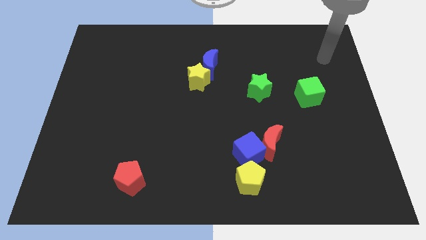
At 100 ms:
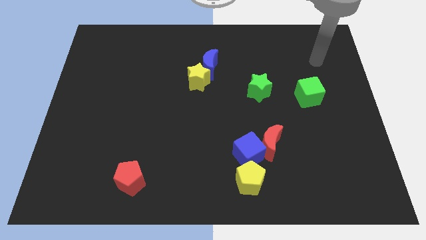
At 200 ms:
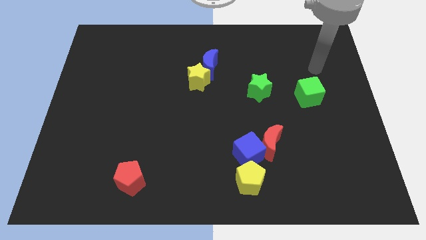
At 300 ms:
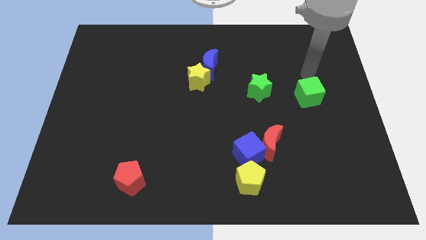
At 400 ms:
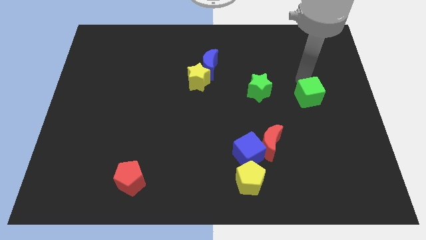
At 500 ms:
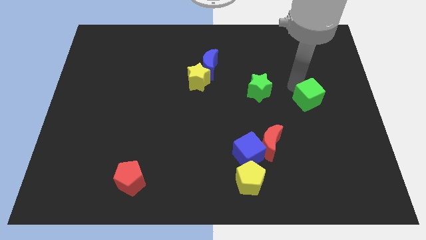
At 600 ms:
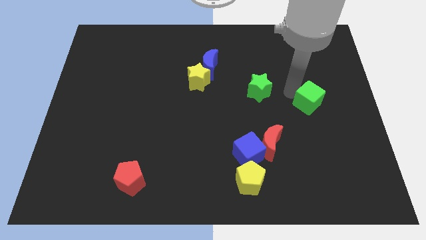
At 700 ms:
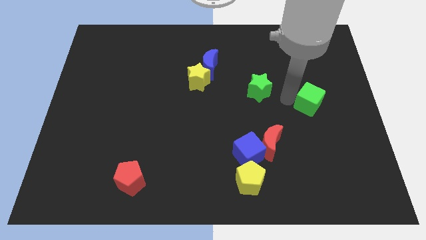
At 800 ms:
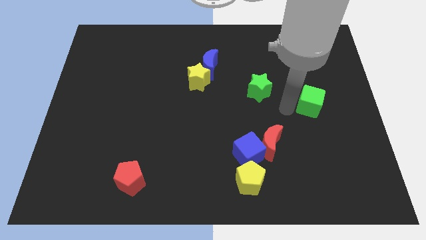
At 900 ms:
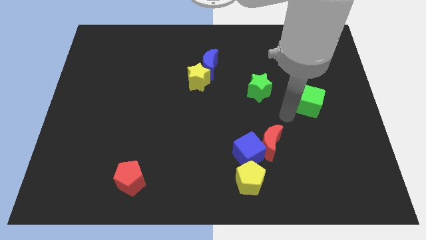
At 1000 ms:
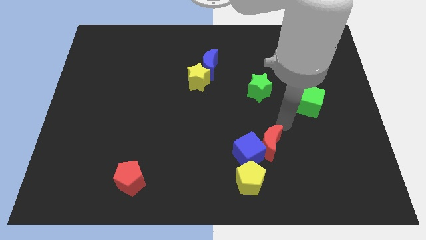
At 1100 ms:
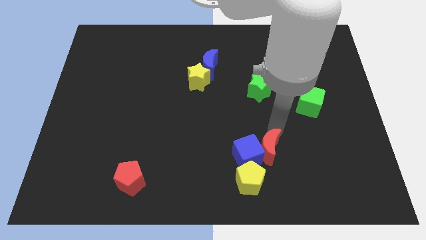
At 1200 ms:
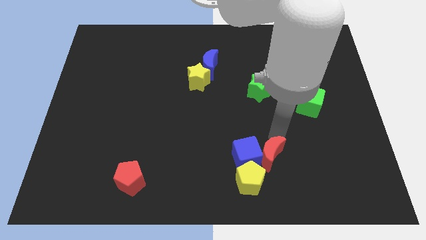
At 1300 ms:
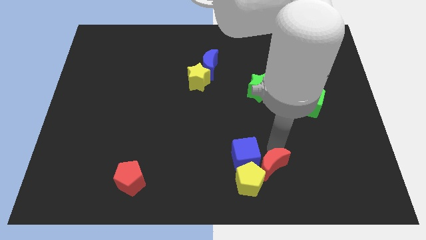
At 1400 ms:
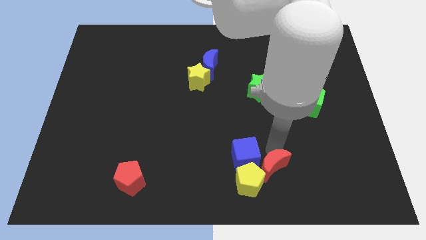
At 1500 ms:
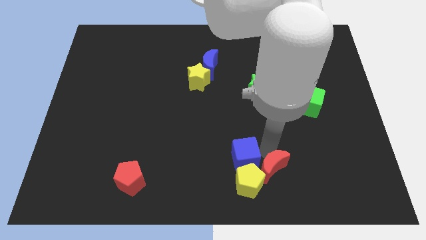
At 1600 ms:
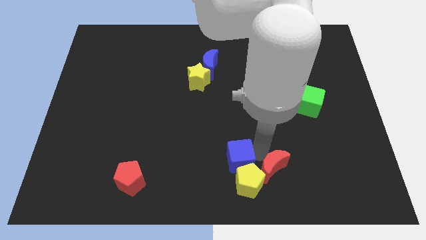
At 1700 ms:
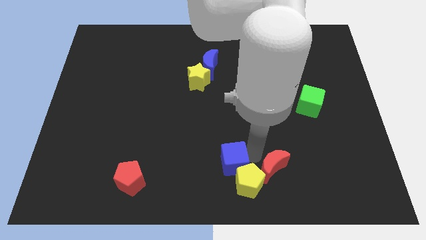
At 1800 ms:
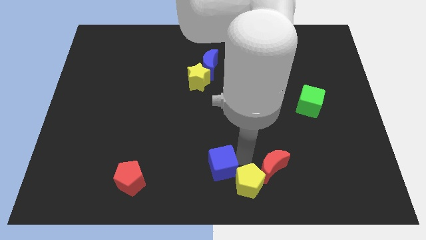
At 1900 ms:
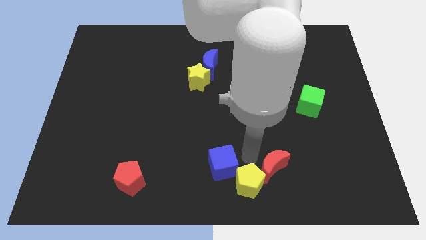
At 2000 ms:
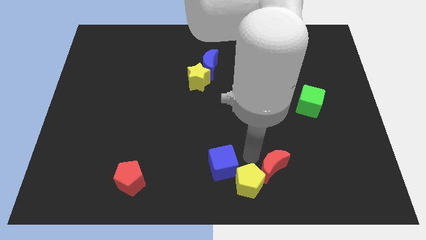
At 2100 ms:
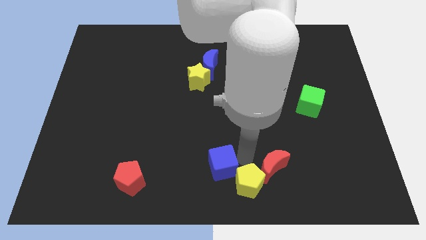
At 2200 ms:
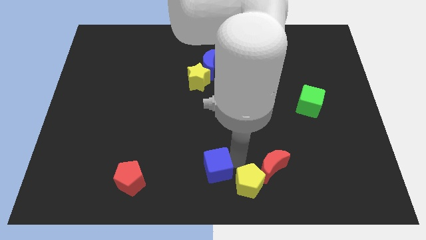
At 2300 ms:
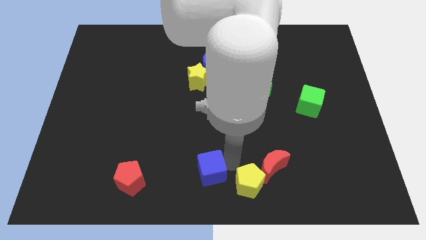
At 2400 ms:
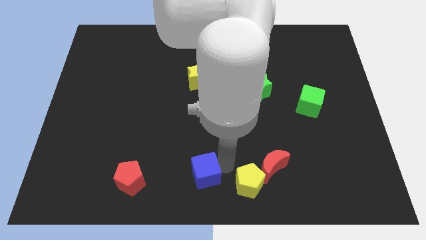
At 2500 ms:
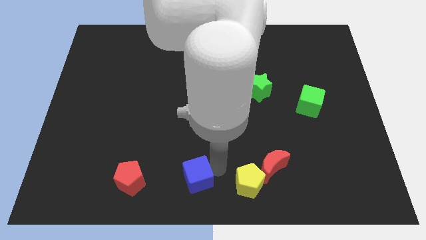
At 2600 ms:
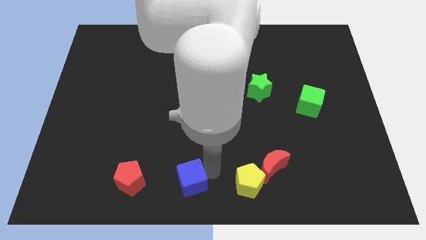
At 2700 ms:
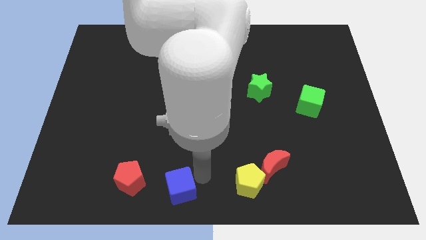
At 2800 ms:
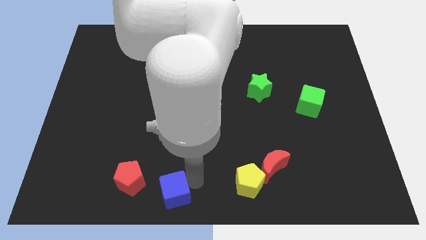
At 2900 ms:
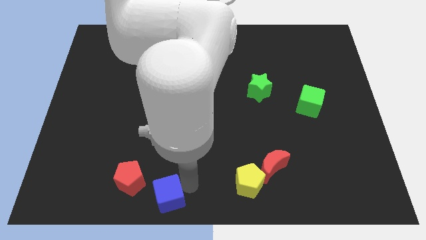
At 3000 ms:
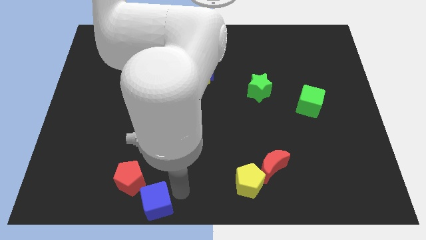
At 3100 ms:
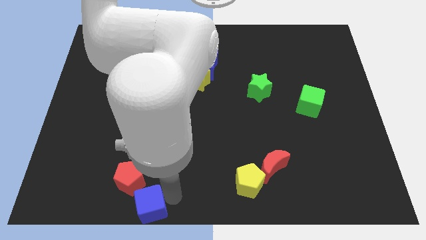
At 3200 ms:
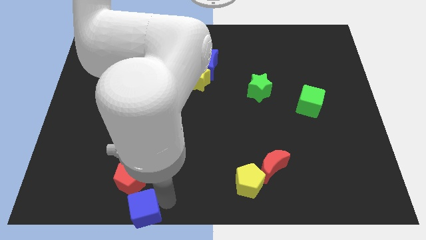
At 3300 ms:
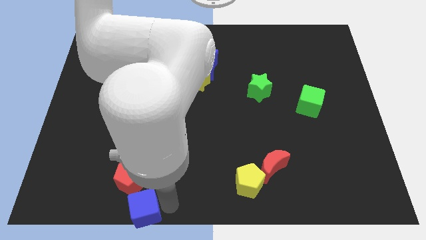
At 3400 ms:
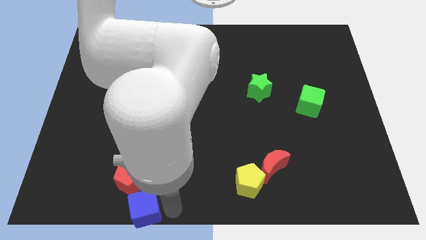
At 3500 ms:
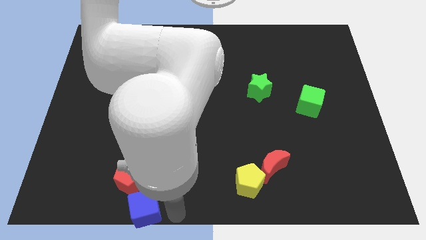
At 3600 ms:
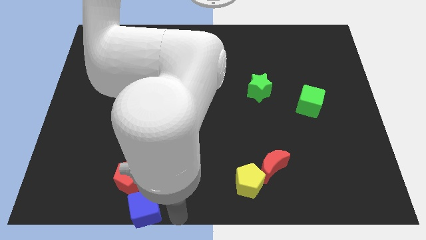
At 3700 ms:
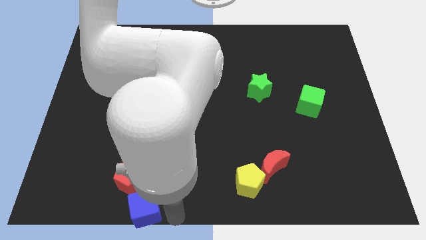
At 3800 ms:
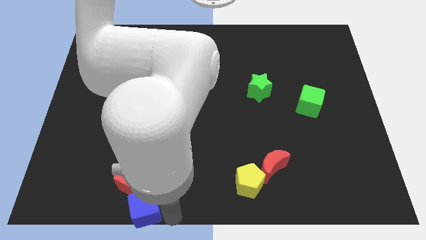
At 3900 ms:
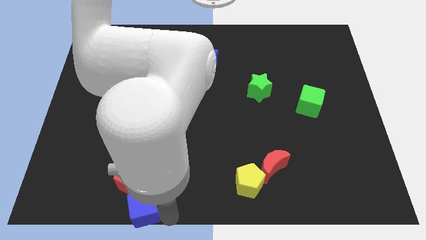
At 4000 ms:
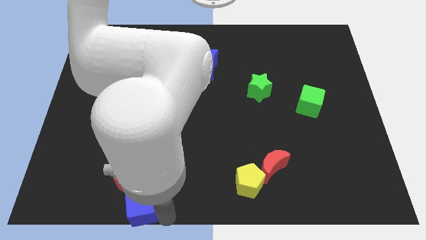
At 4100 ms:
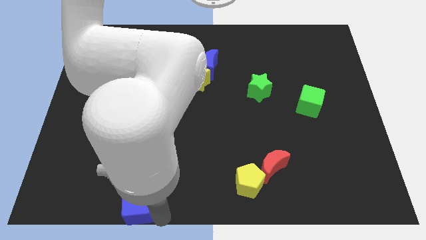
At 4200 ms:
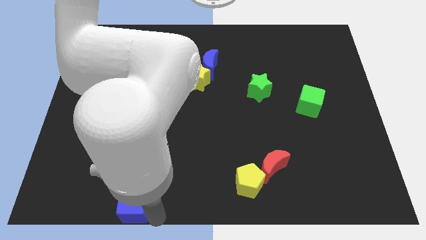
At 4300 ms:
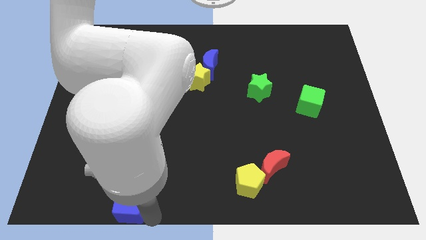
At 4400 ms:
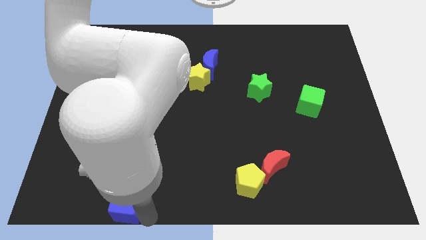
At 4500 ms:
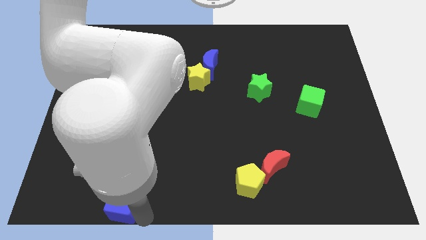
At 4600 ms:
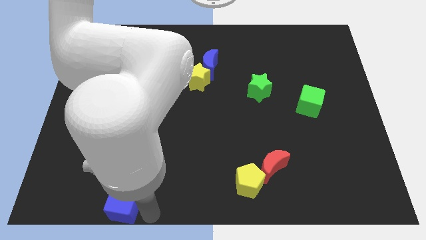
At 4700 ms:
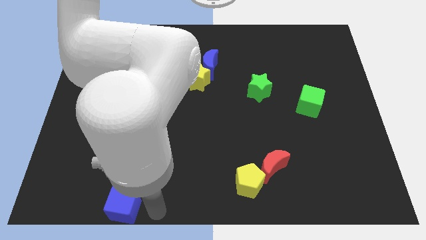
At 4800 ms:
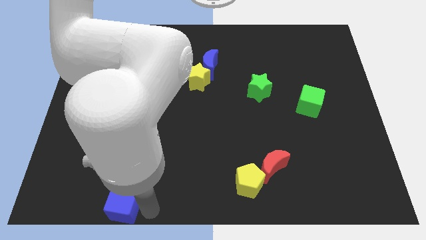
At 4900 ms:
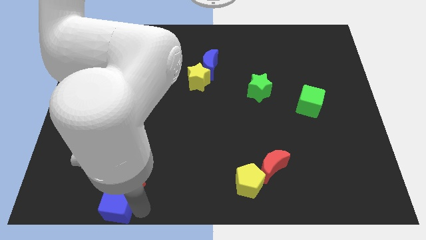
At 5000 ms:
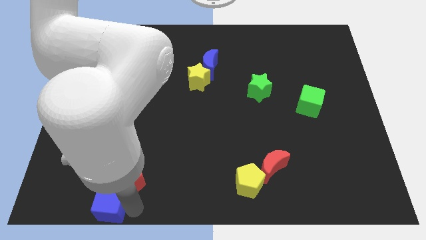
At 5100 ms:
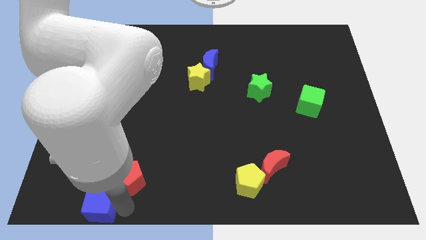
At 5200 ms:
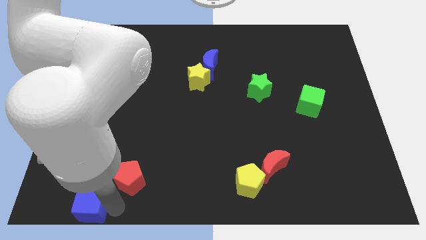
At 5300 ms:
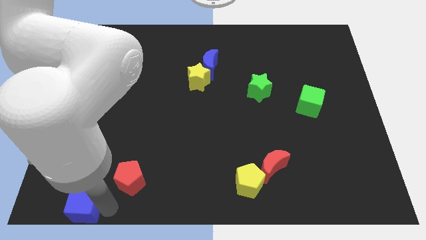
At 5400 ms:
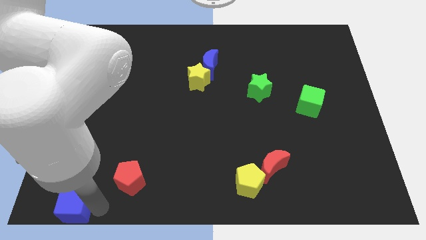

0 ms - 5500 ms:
put the blue cube to the lower left corner

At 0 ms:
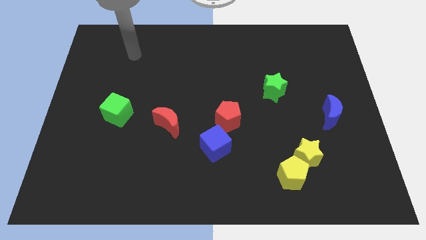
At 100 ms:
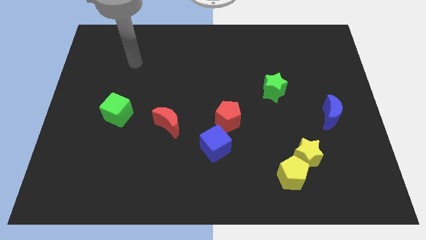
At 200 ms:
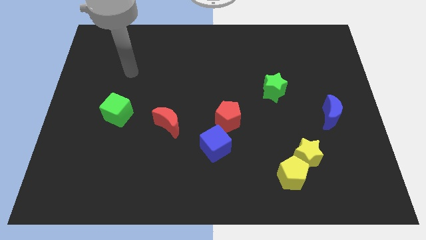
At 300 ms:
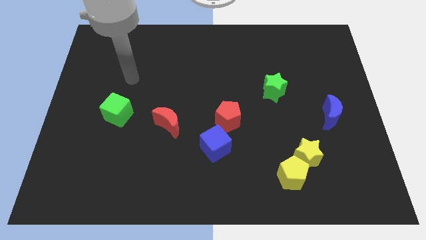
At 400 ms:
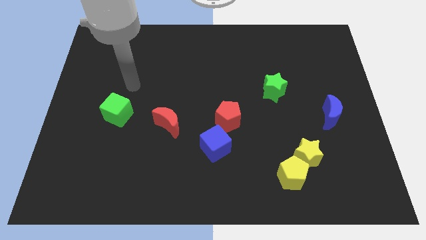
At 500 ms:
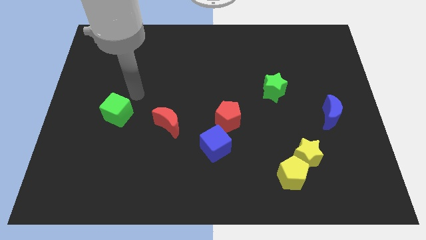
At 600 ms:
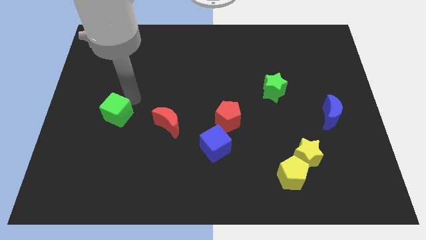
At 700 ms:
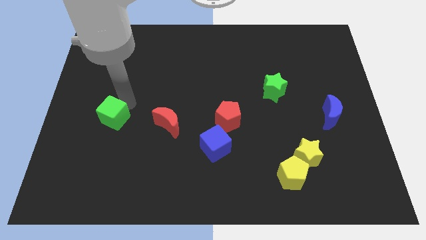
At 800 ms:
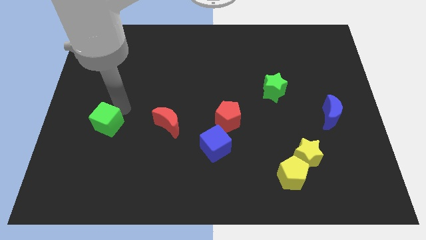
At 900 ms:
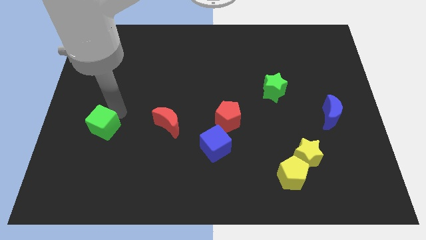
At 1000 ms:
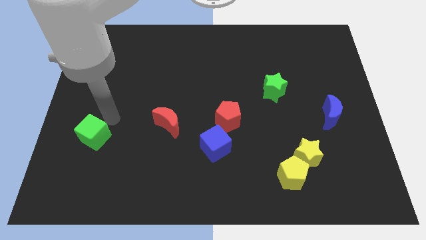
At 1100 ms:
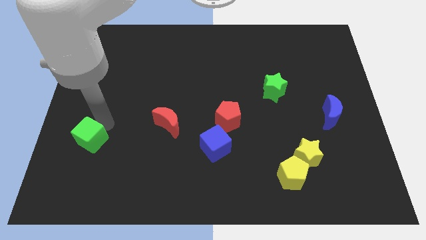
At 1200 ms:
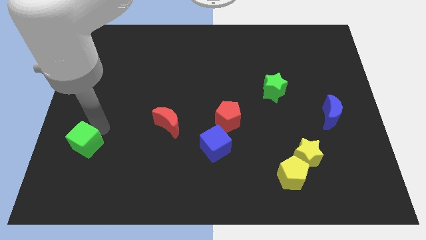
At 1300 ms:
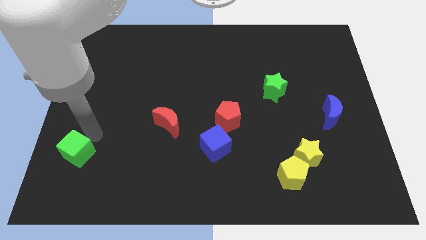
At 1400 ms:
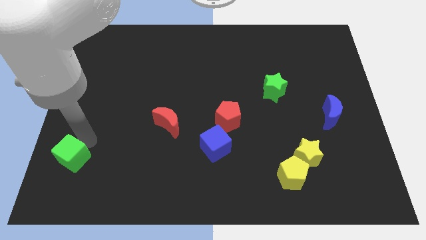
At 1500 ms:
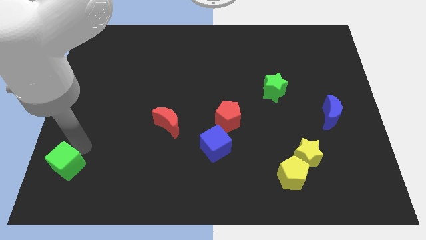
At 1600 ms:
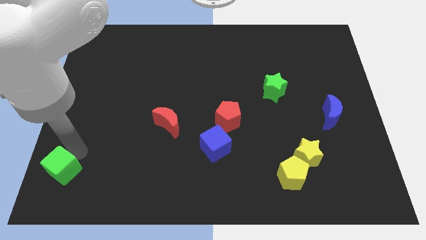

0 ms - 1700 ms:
move the green cube to the bottom left of the board
